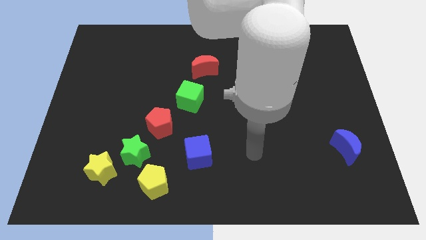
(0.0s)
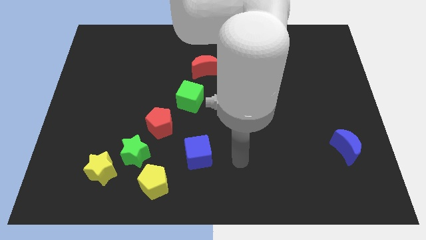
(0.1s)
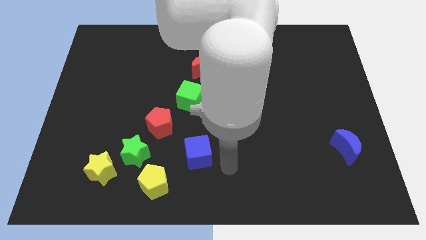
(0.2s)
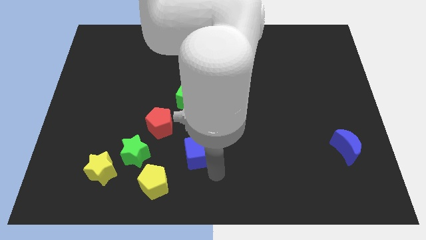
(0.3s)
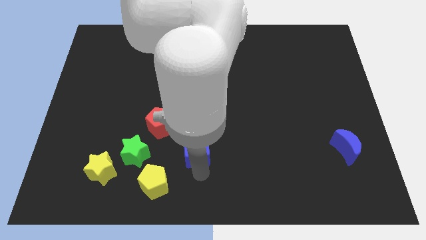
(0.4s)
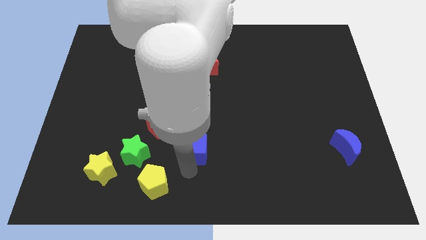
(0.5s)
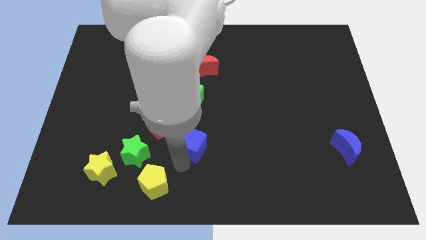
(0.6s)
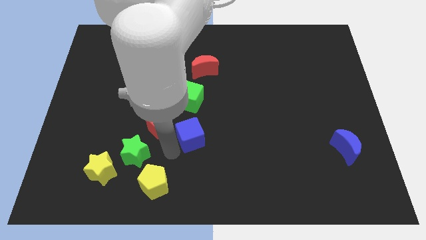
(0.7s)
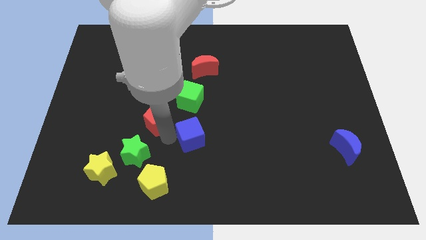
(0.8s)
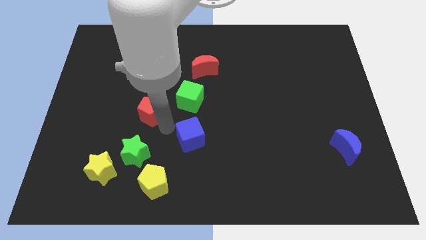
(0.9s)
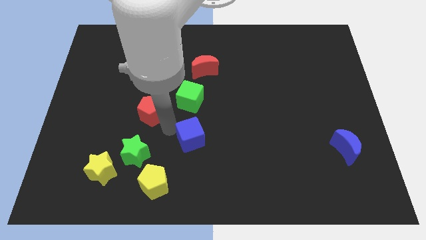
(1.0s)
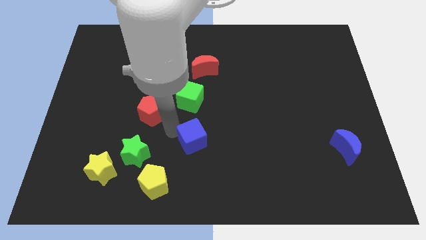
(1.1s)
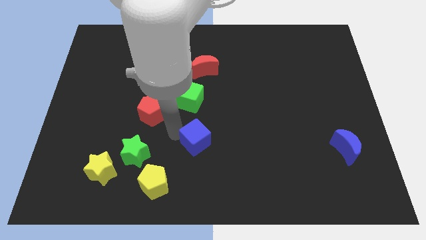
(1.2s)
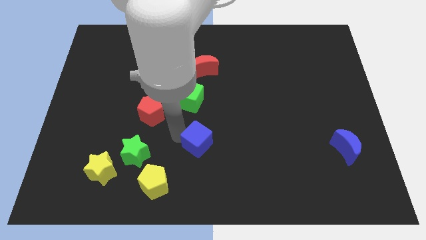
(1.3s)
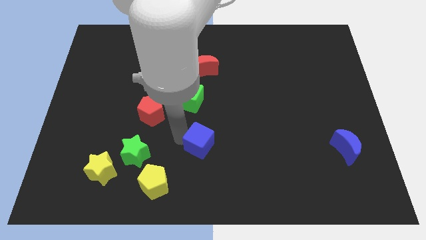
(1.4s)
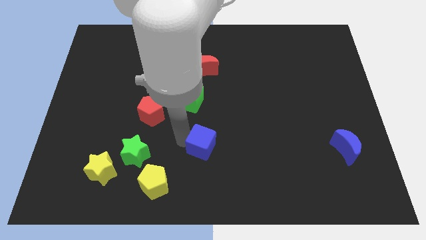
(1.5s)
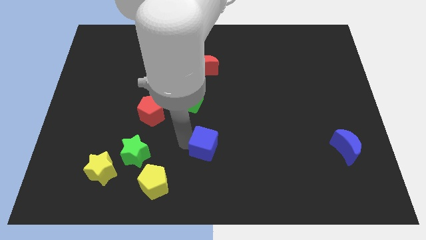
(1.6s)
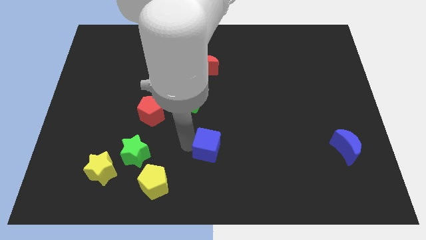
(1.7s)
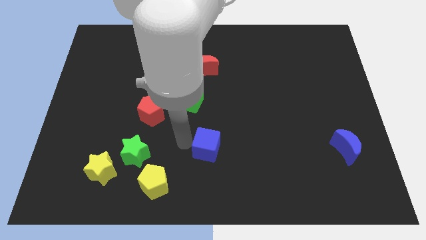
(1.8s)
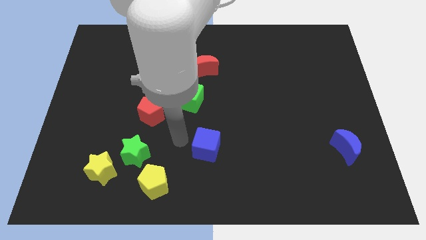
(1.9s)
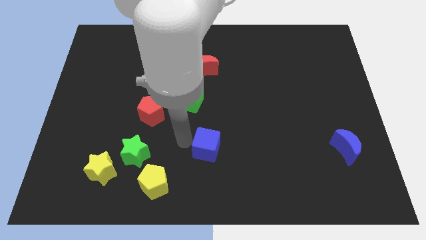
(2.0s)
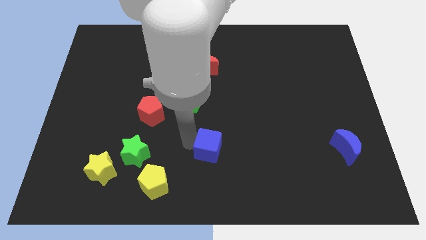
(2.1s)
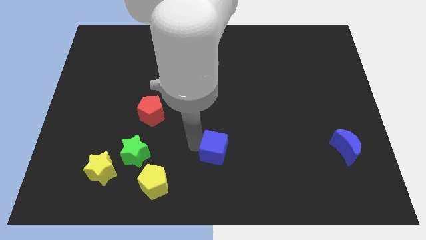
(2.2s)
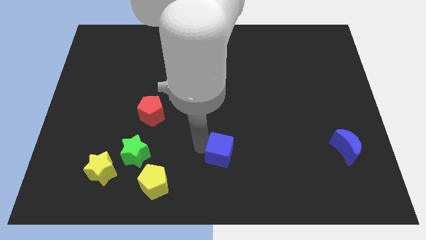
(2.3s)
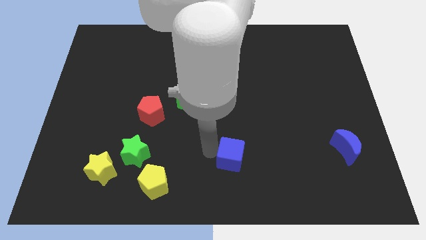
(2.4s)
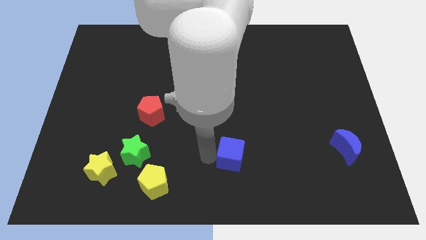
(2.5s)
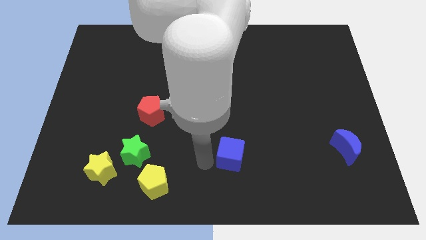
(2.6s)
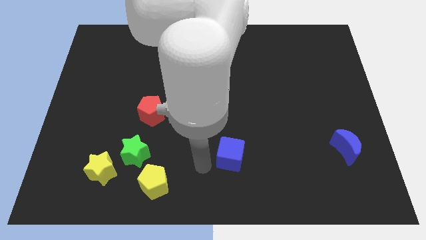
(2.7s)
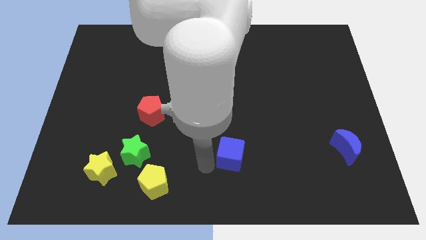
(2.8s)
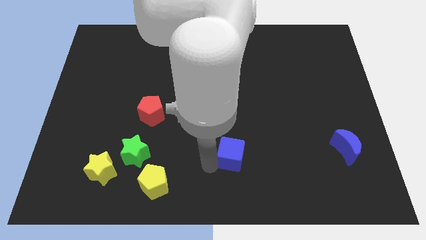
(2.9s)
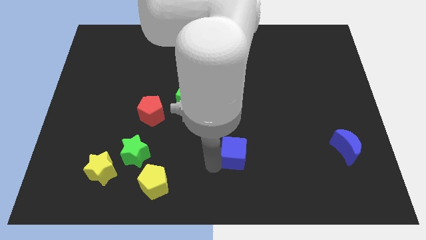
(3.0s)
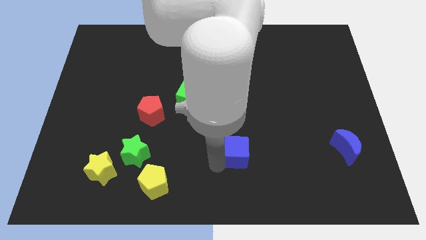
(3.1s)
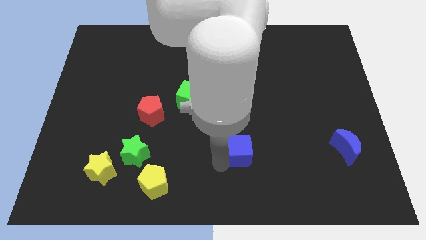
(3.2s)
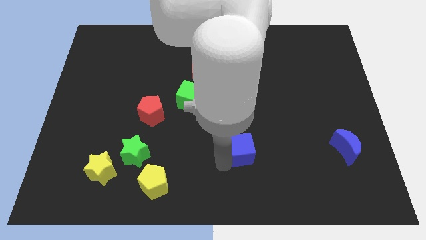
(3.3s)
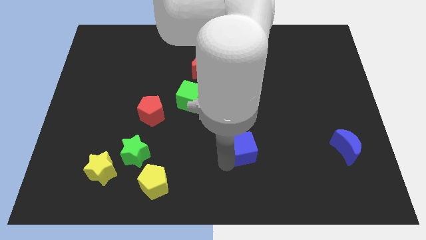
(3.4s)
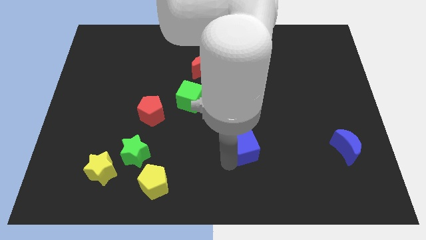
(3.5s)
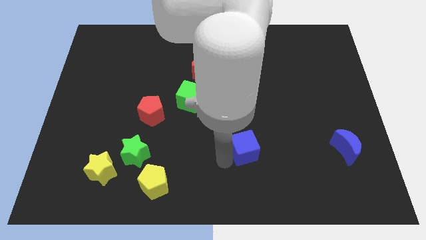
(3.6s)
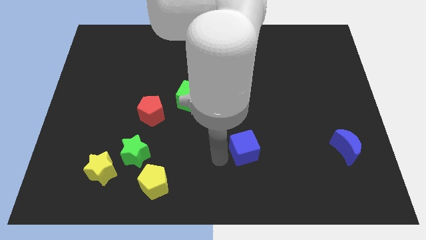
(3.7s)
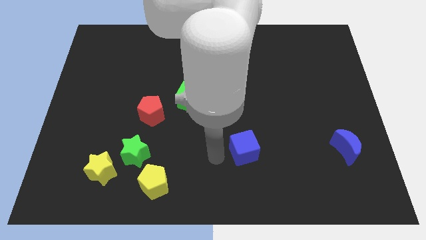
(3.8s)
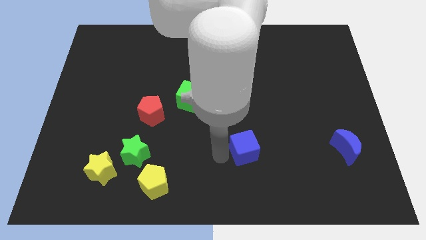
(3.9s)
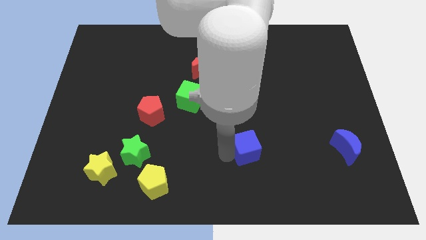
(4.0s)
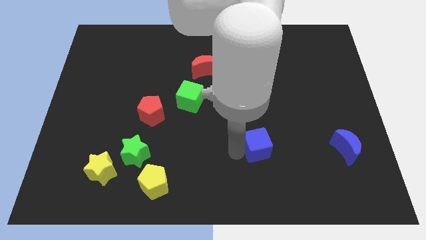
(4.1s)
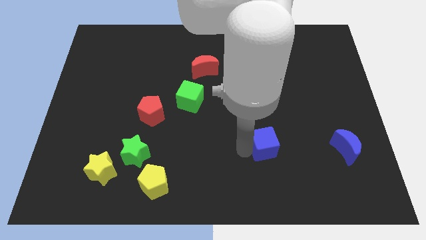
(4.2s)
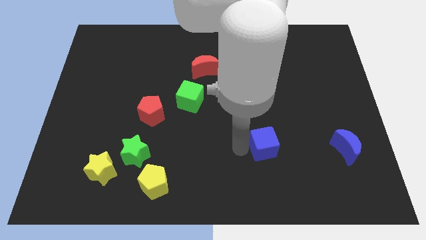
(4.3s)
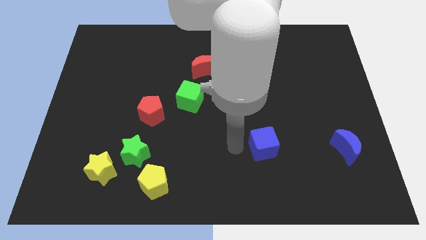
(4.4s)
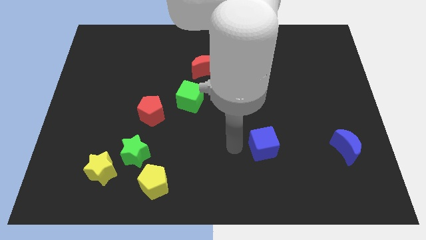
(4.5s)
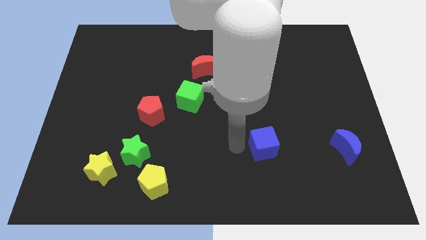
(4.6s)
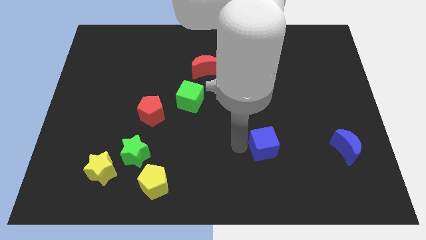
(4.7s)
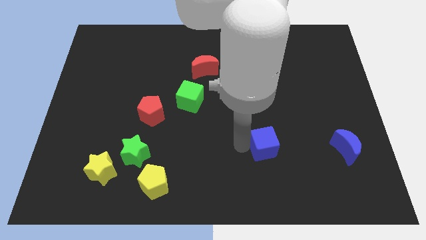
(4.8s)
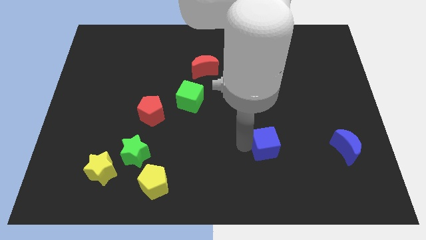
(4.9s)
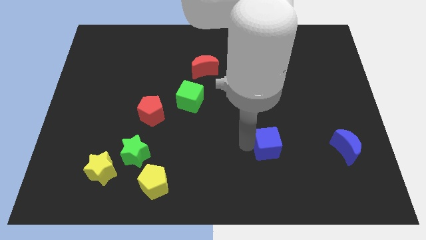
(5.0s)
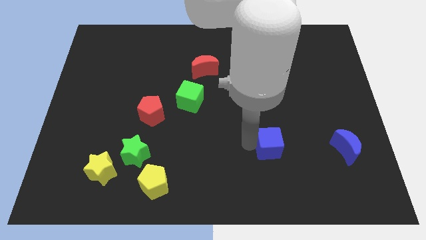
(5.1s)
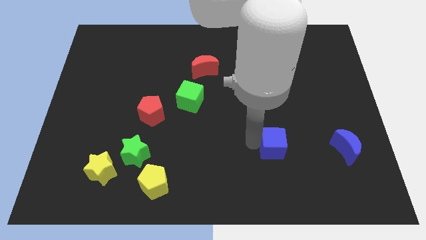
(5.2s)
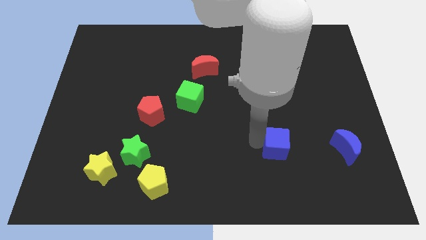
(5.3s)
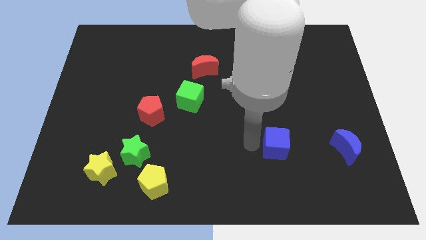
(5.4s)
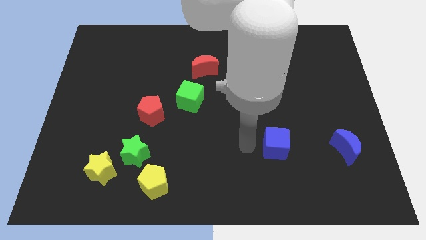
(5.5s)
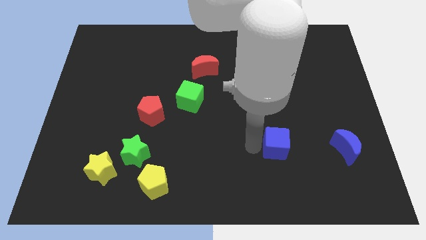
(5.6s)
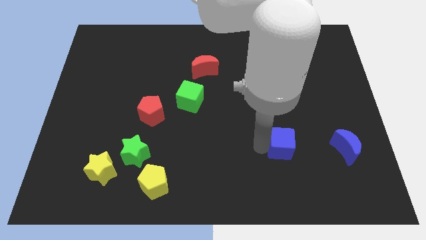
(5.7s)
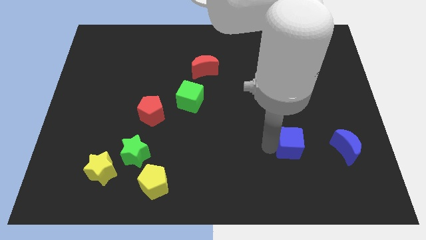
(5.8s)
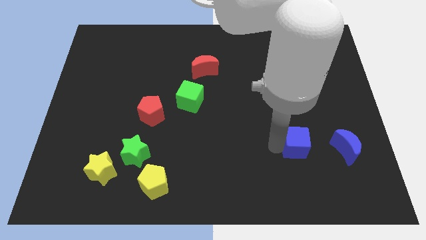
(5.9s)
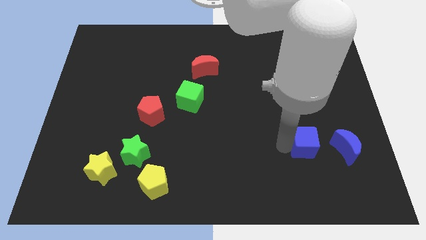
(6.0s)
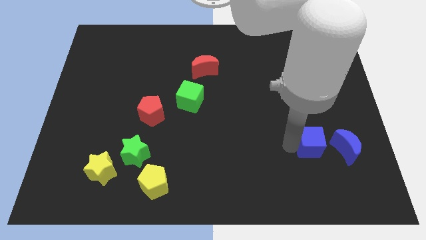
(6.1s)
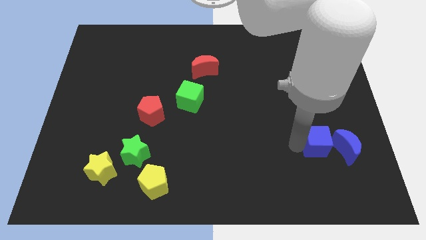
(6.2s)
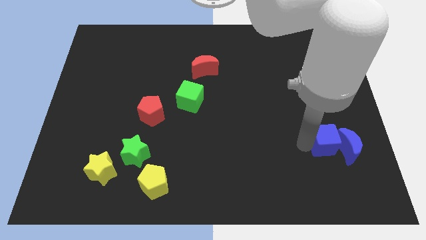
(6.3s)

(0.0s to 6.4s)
put the blue cube to the blue moon

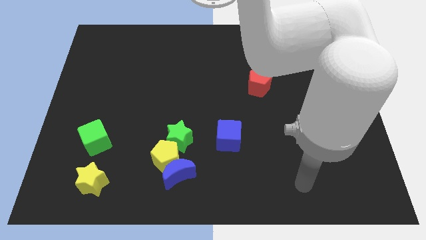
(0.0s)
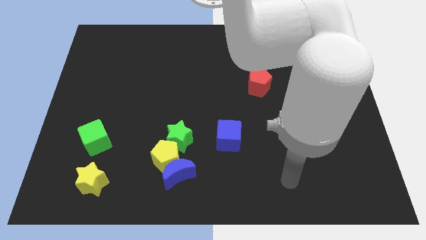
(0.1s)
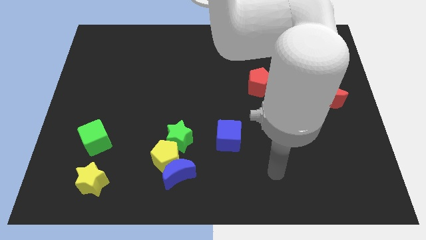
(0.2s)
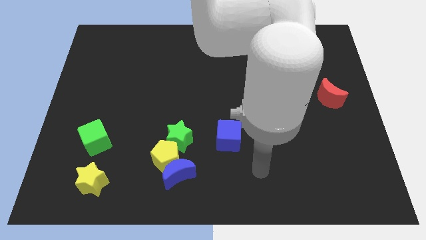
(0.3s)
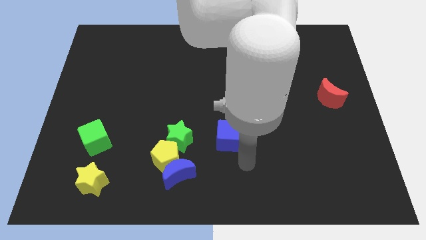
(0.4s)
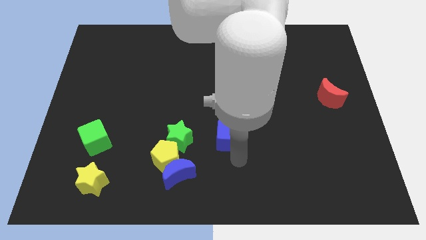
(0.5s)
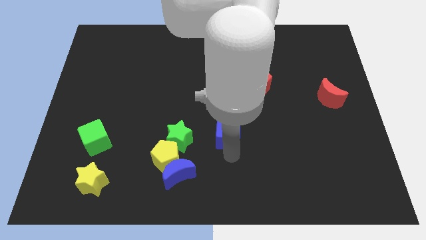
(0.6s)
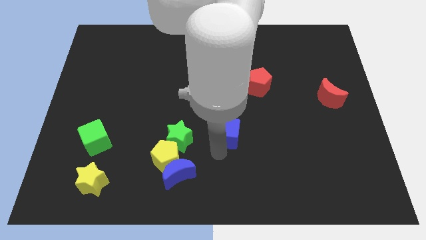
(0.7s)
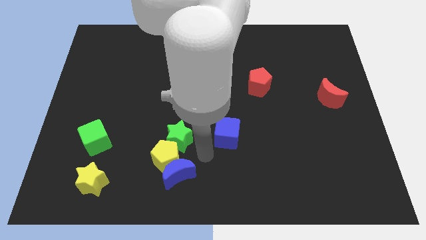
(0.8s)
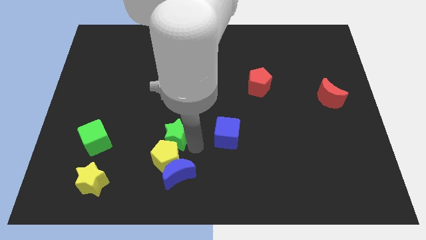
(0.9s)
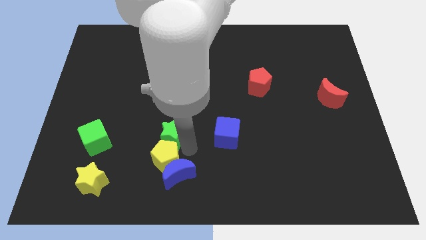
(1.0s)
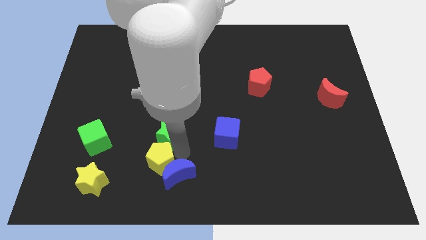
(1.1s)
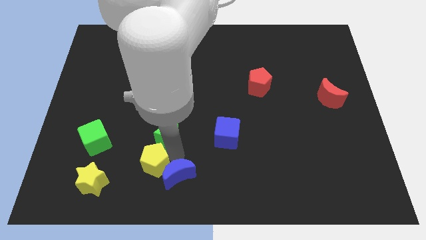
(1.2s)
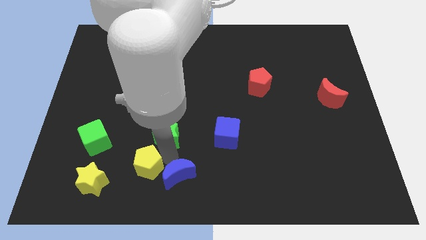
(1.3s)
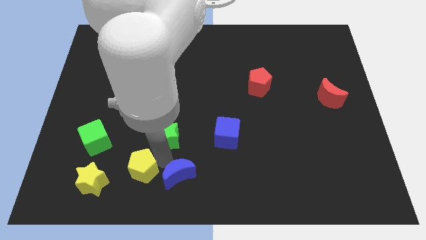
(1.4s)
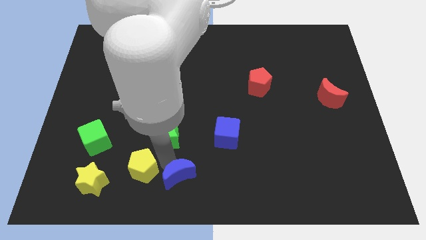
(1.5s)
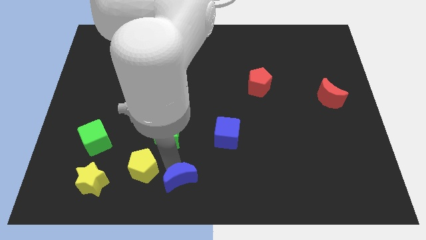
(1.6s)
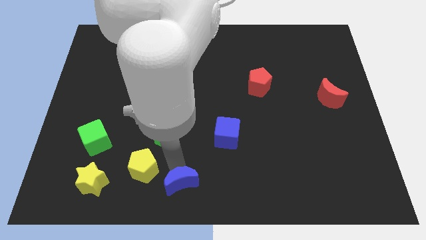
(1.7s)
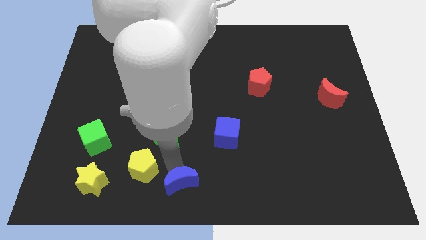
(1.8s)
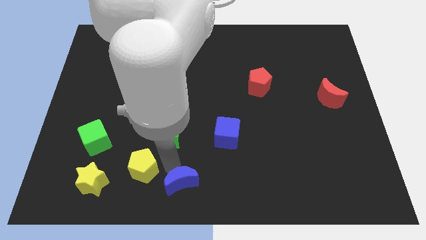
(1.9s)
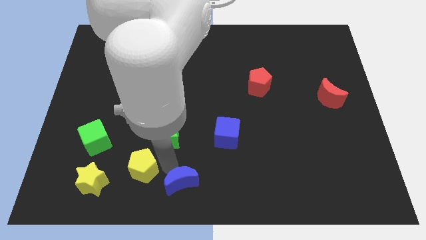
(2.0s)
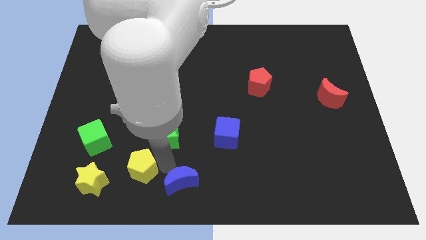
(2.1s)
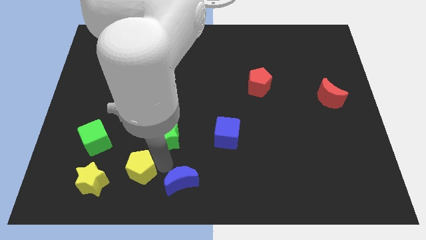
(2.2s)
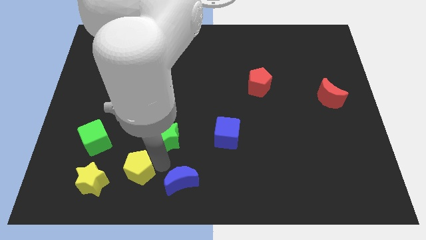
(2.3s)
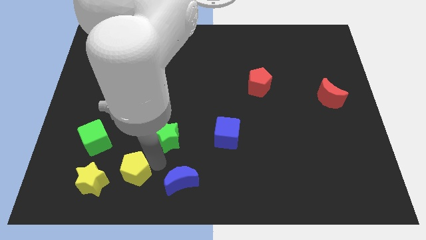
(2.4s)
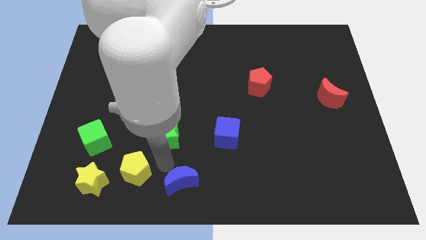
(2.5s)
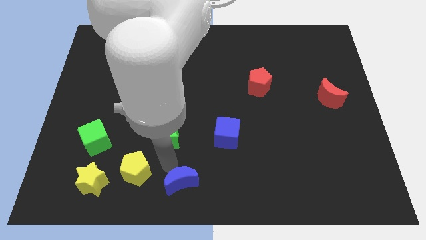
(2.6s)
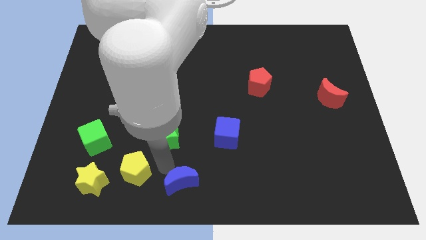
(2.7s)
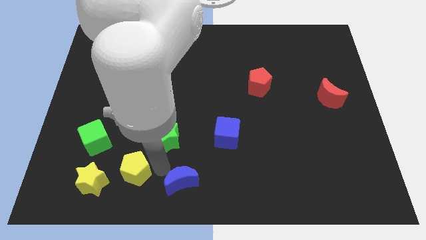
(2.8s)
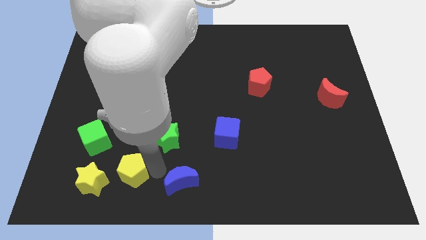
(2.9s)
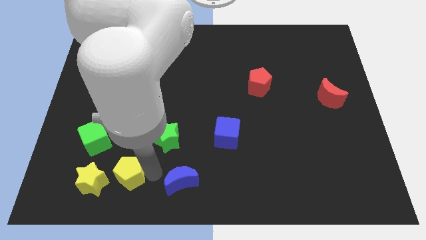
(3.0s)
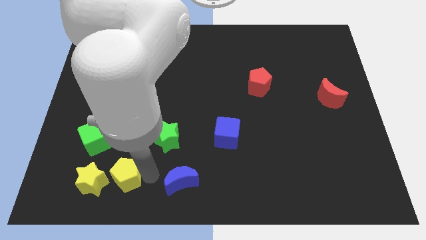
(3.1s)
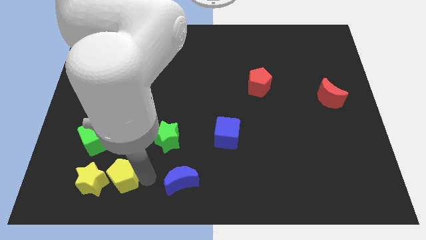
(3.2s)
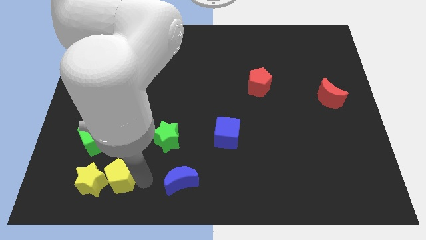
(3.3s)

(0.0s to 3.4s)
slide the yellow pentagon to the yellow star
